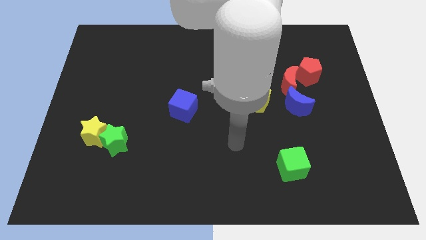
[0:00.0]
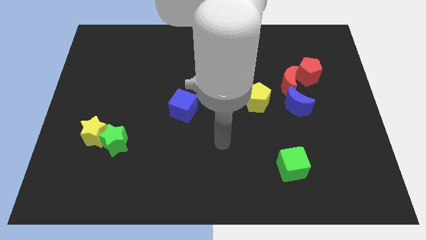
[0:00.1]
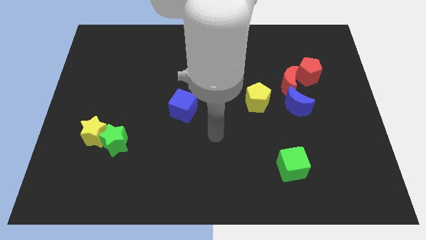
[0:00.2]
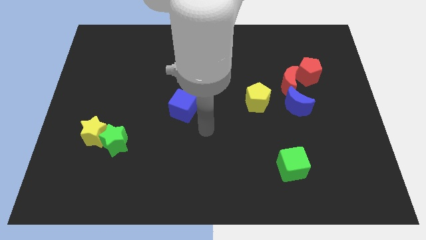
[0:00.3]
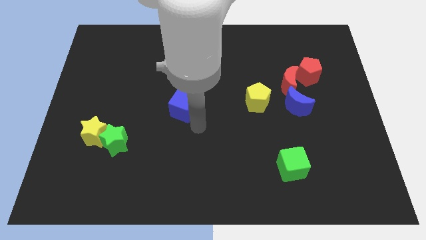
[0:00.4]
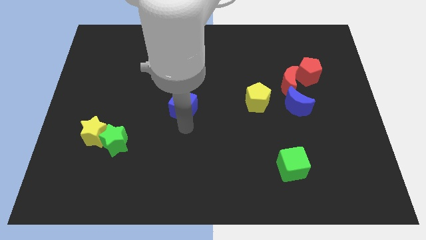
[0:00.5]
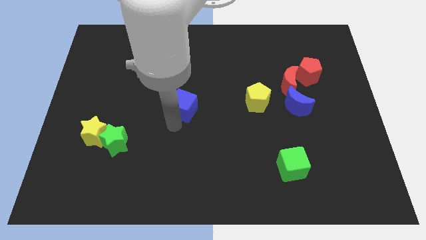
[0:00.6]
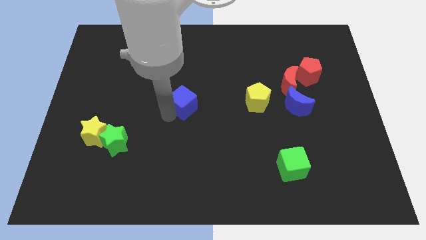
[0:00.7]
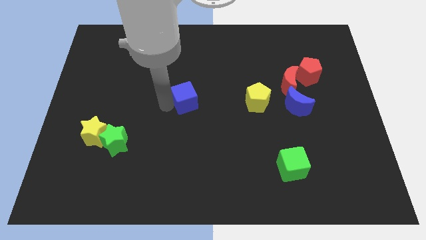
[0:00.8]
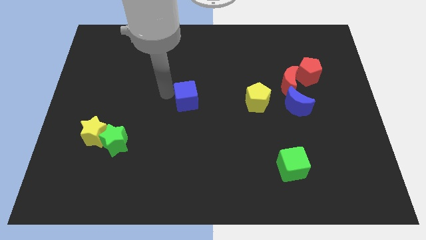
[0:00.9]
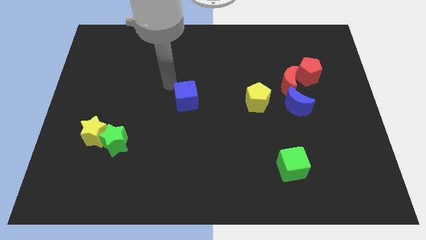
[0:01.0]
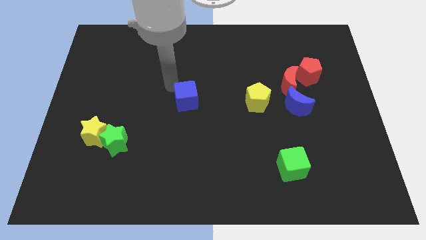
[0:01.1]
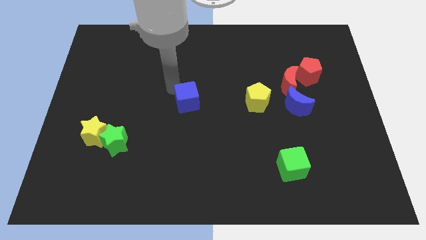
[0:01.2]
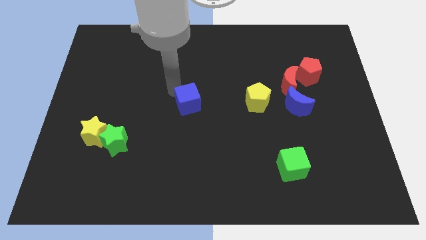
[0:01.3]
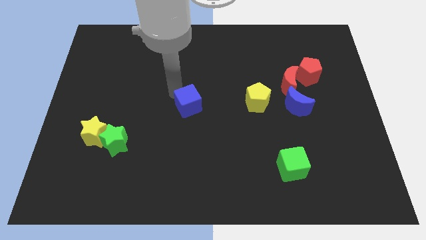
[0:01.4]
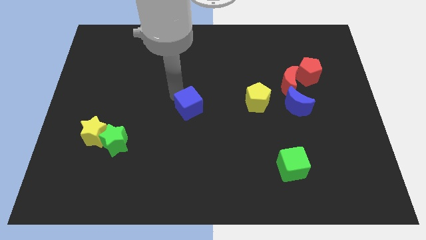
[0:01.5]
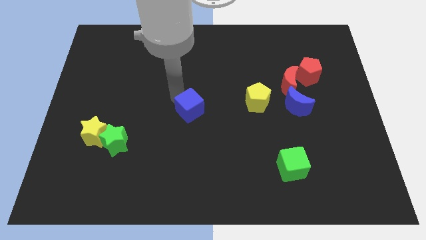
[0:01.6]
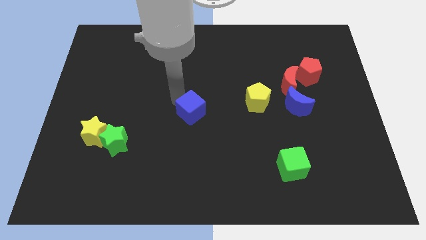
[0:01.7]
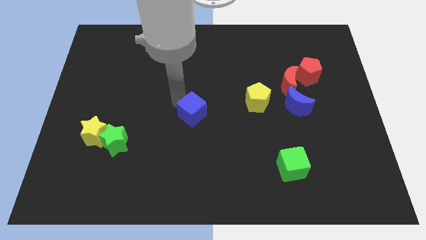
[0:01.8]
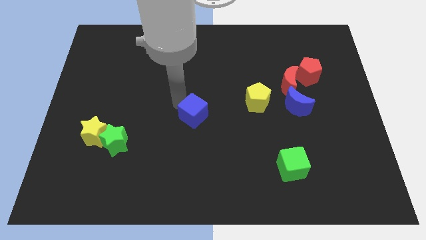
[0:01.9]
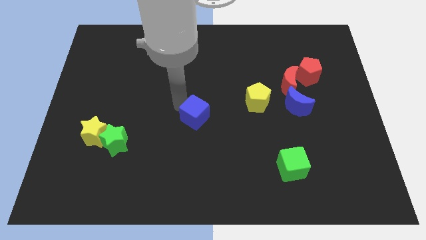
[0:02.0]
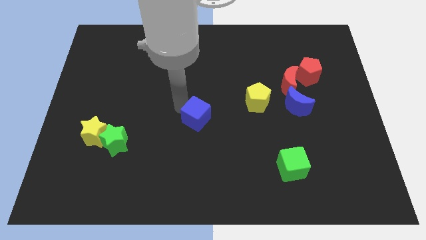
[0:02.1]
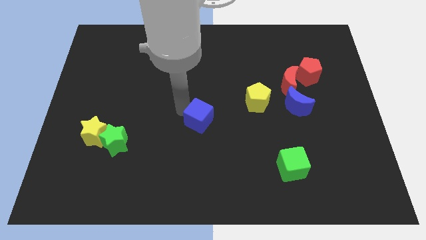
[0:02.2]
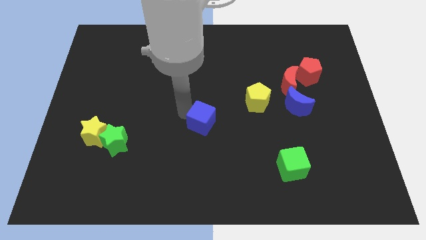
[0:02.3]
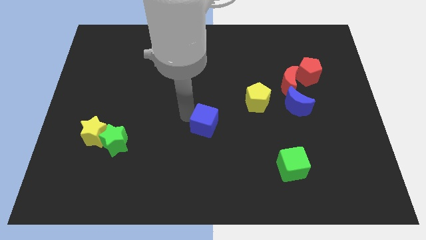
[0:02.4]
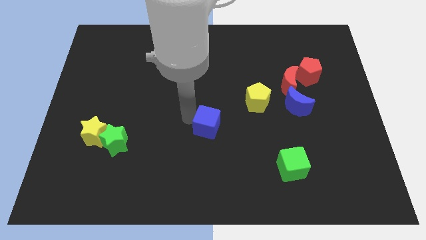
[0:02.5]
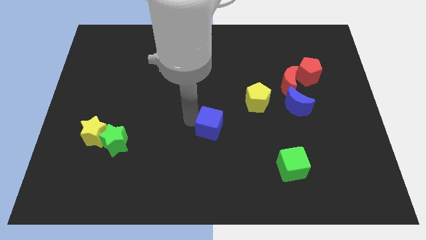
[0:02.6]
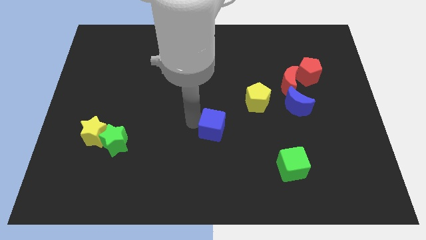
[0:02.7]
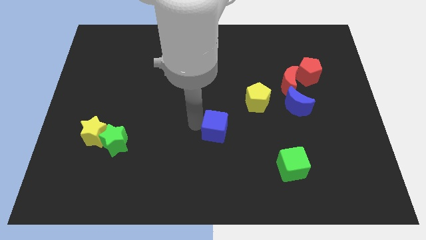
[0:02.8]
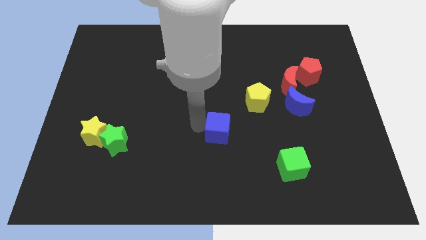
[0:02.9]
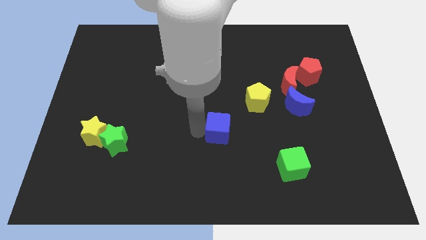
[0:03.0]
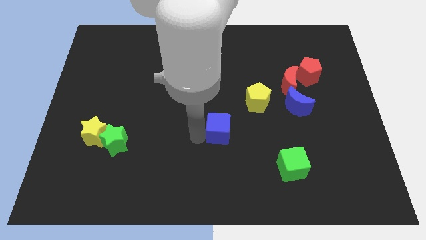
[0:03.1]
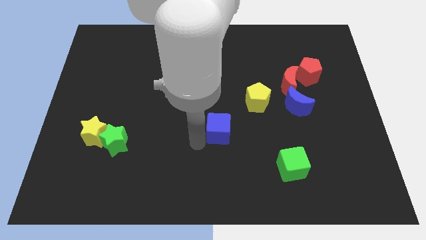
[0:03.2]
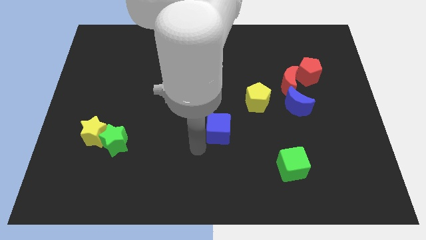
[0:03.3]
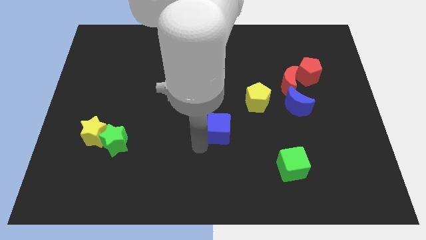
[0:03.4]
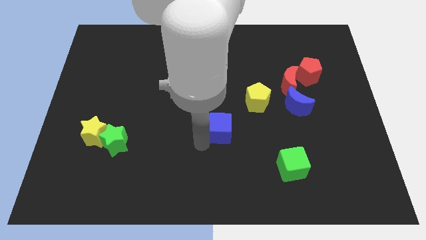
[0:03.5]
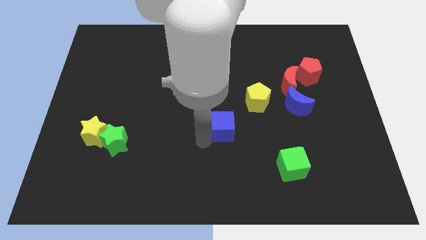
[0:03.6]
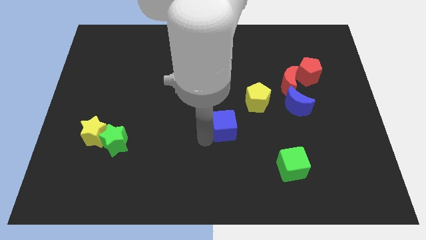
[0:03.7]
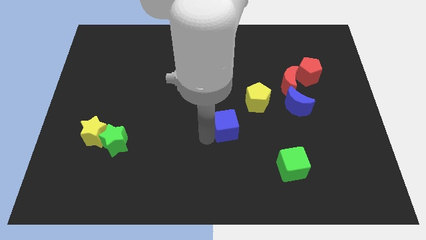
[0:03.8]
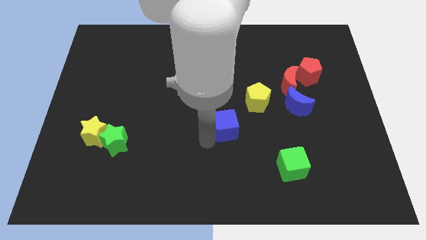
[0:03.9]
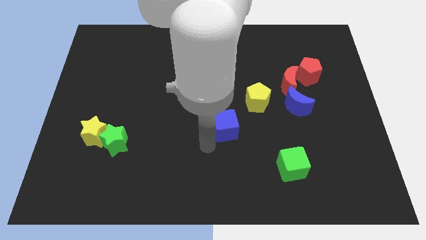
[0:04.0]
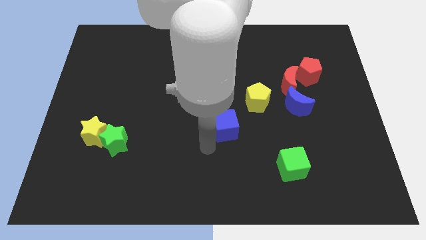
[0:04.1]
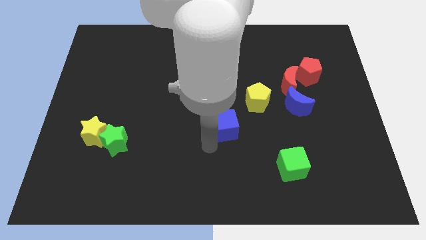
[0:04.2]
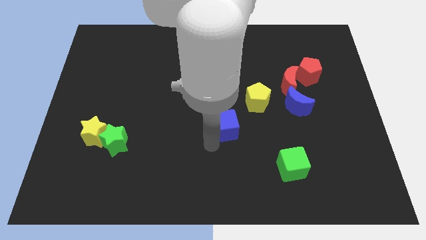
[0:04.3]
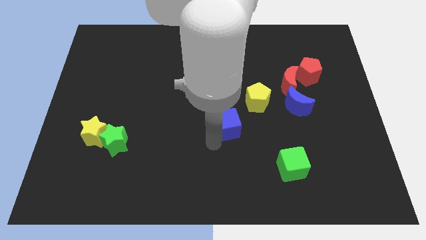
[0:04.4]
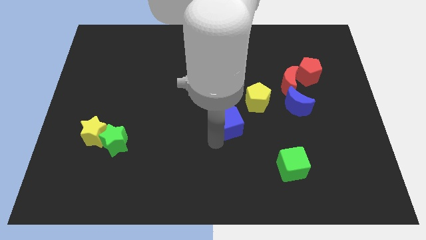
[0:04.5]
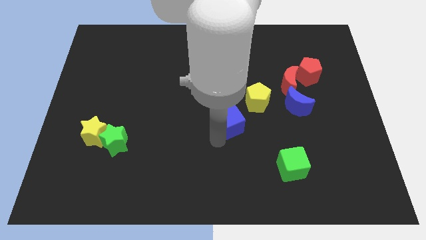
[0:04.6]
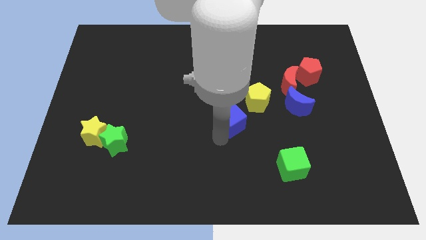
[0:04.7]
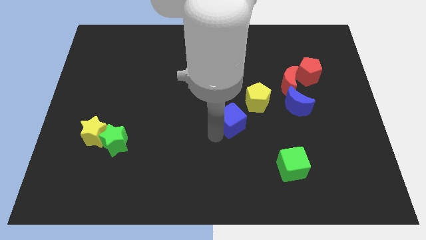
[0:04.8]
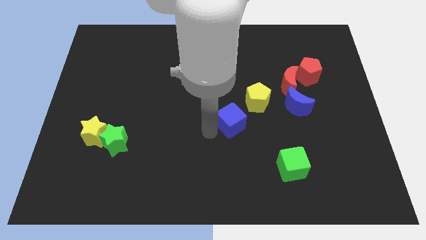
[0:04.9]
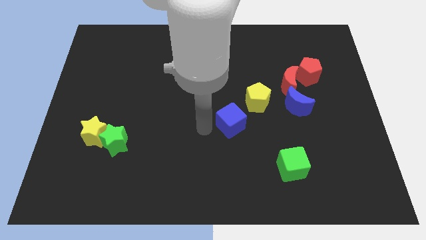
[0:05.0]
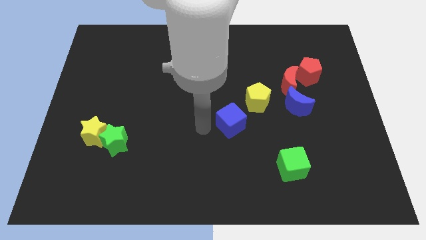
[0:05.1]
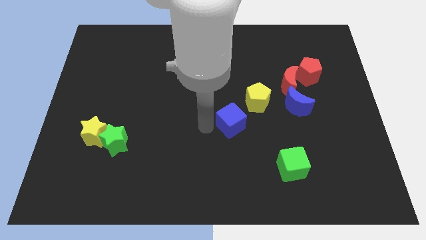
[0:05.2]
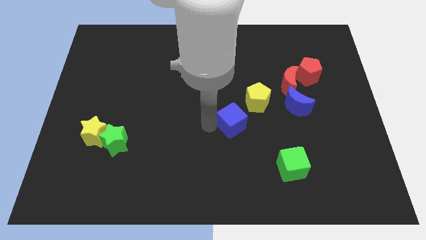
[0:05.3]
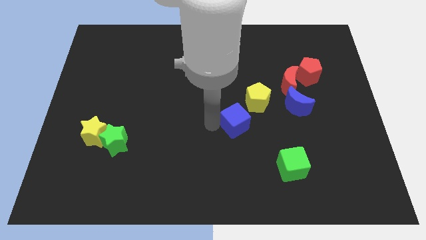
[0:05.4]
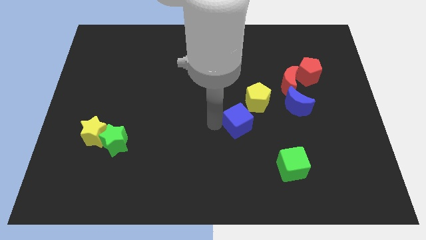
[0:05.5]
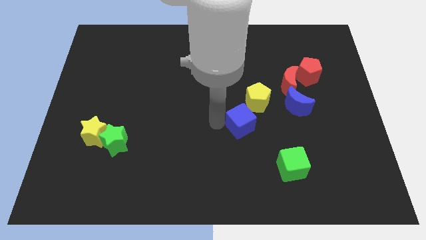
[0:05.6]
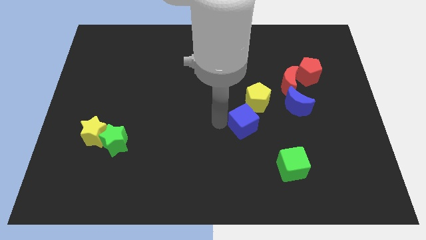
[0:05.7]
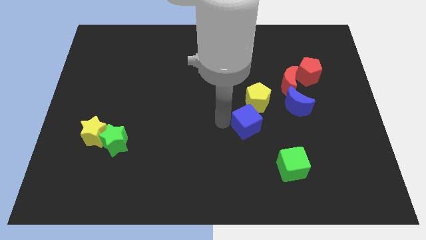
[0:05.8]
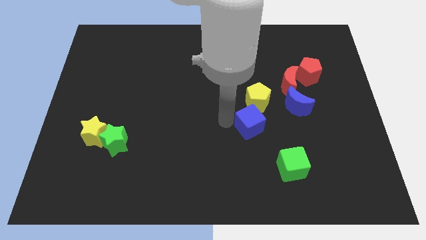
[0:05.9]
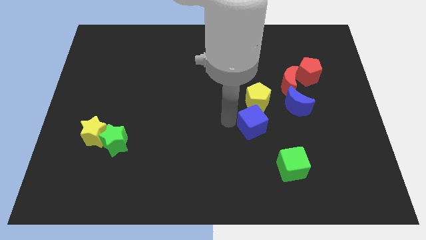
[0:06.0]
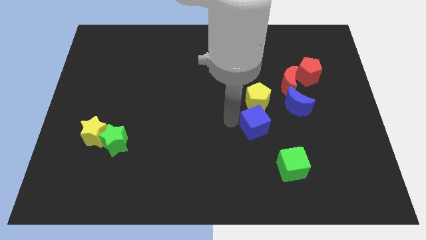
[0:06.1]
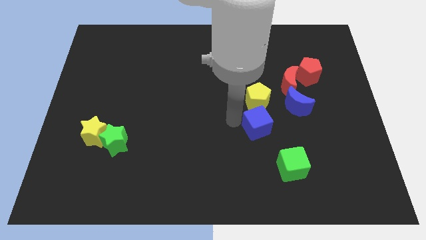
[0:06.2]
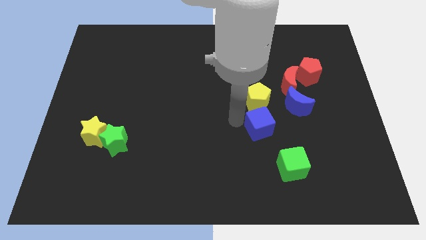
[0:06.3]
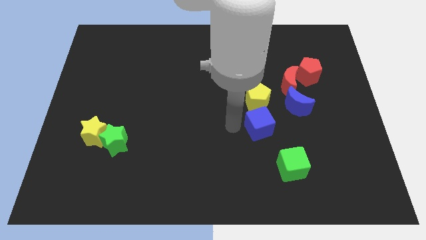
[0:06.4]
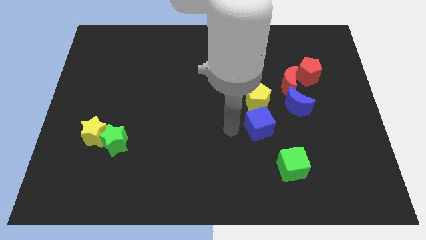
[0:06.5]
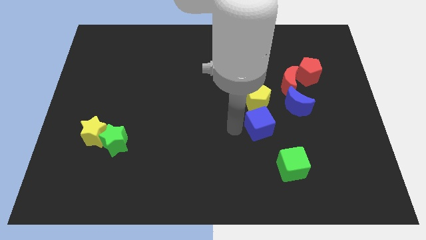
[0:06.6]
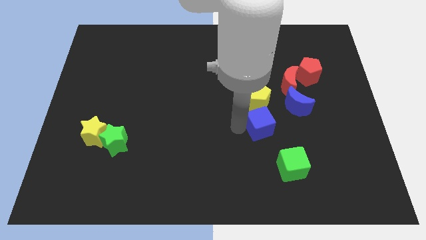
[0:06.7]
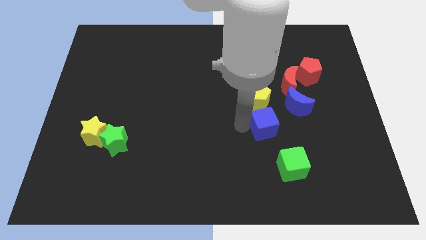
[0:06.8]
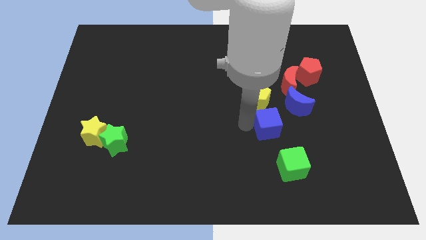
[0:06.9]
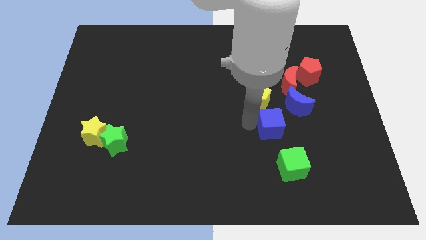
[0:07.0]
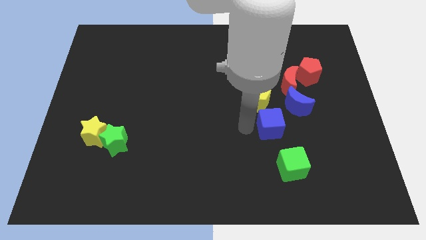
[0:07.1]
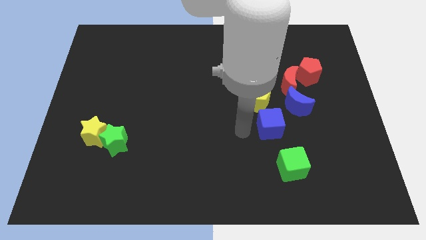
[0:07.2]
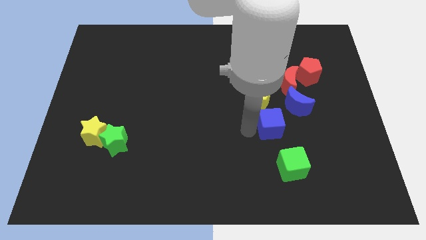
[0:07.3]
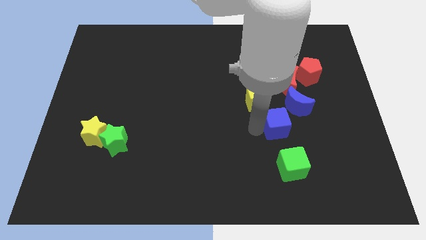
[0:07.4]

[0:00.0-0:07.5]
push the blue cube right

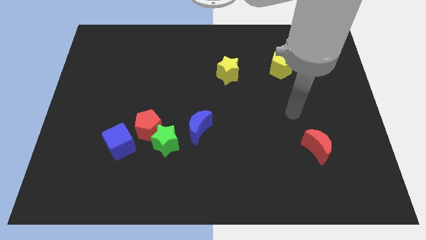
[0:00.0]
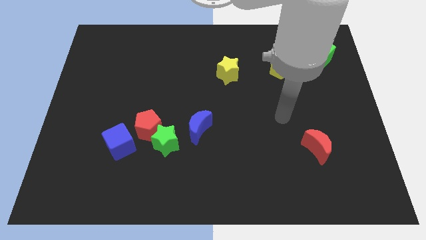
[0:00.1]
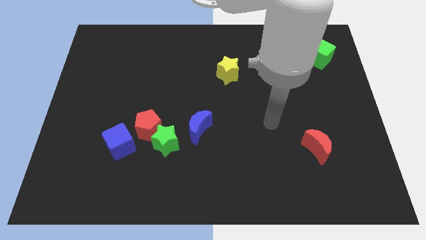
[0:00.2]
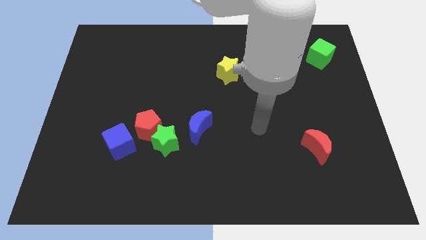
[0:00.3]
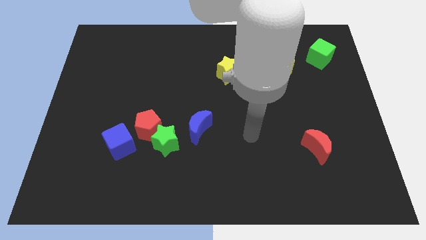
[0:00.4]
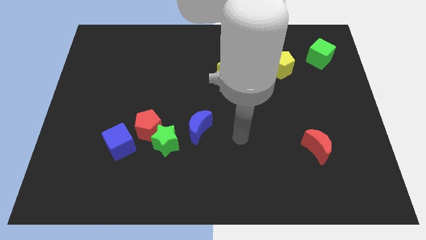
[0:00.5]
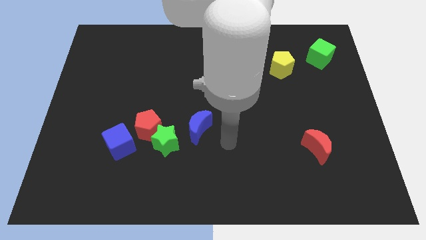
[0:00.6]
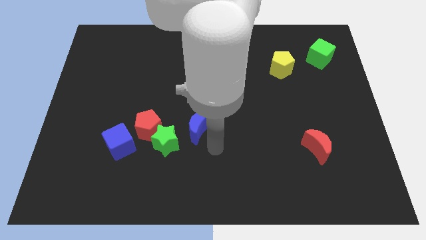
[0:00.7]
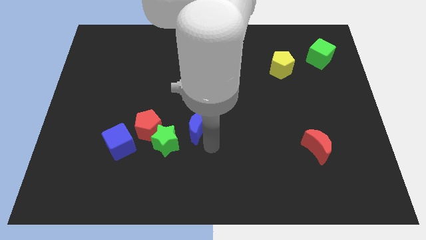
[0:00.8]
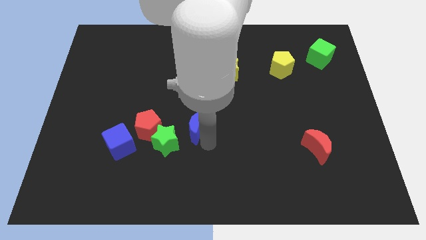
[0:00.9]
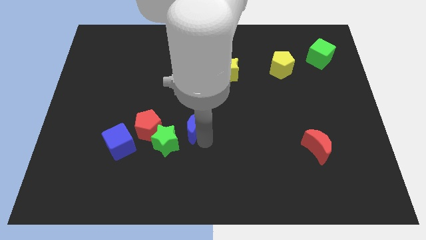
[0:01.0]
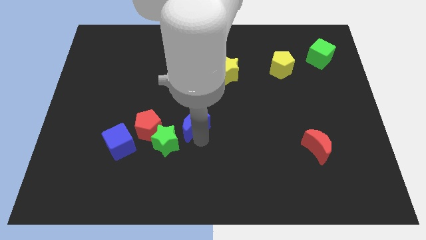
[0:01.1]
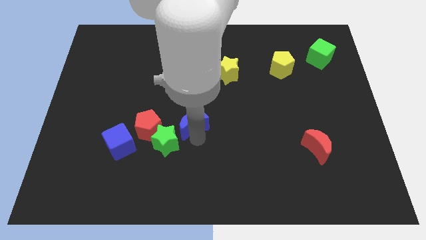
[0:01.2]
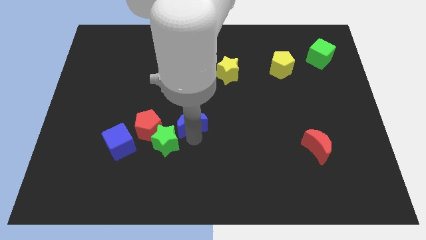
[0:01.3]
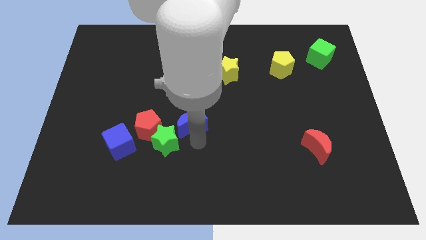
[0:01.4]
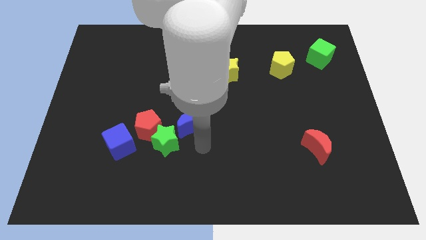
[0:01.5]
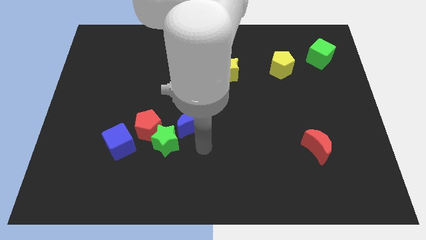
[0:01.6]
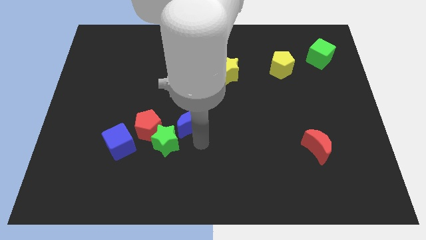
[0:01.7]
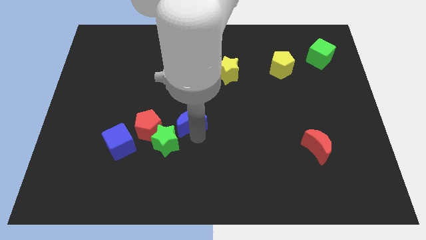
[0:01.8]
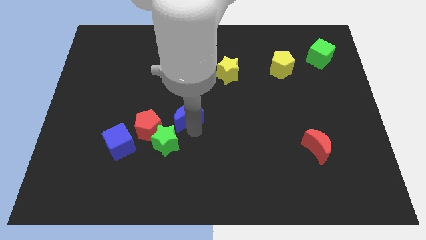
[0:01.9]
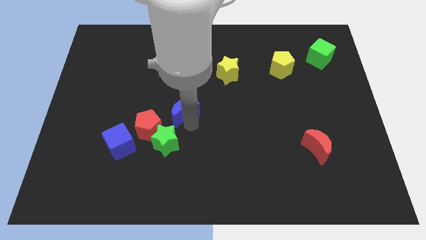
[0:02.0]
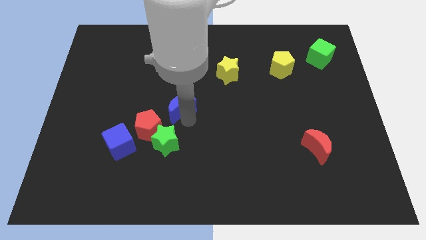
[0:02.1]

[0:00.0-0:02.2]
move the blue moon diagonally upwards and to the left a little bit
